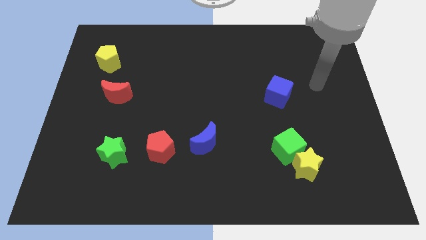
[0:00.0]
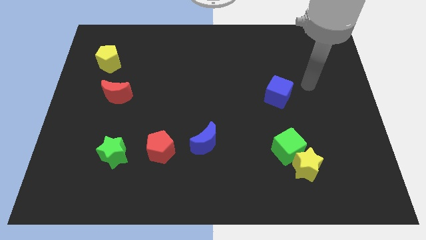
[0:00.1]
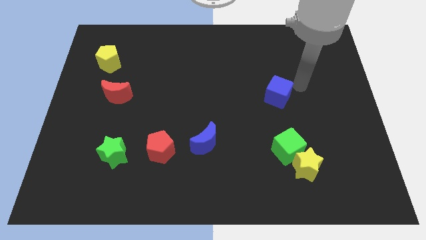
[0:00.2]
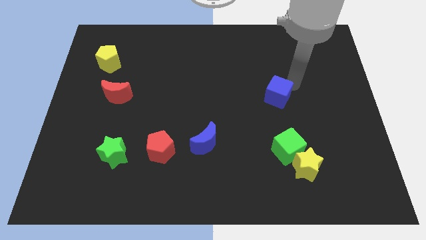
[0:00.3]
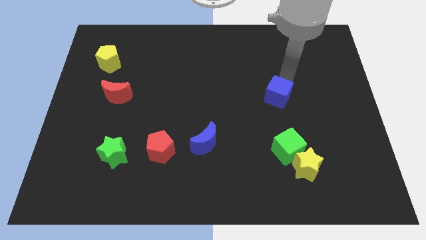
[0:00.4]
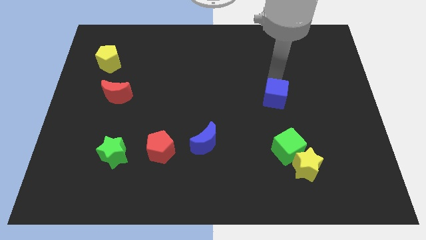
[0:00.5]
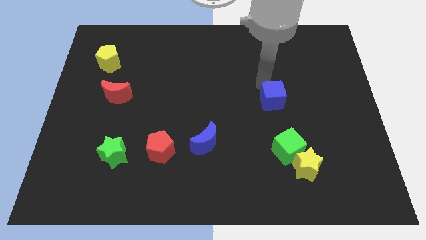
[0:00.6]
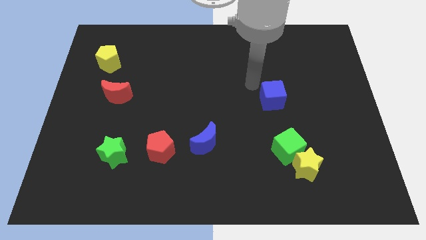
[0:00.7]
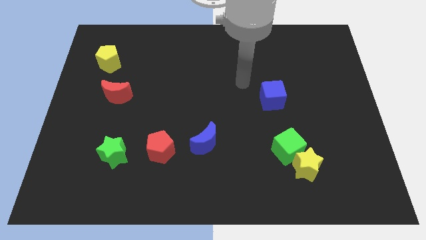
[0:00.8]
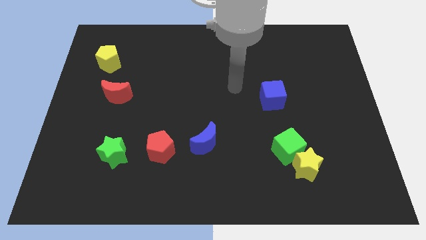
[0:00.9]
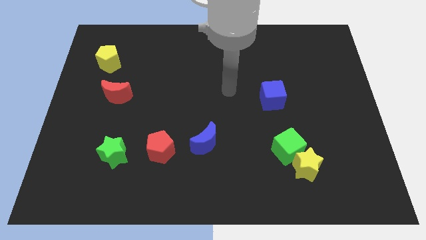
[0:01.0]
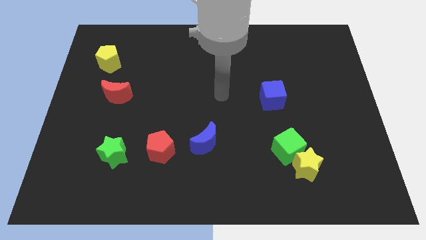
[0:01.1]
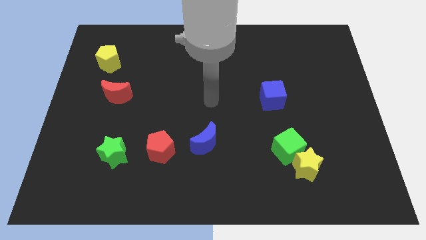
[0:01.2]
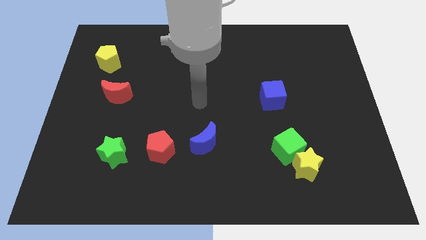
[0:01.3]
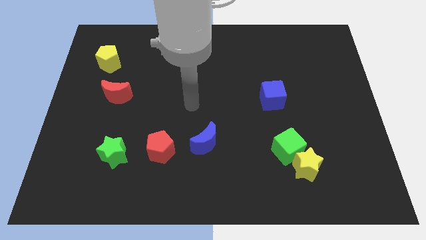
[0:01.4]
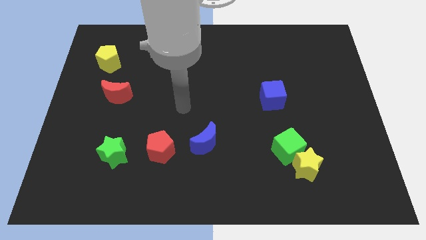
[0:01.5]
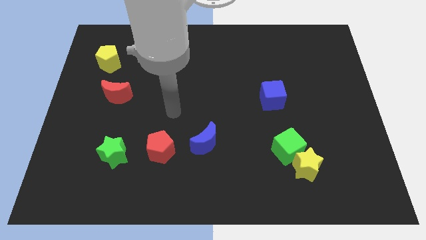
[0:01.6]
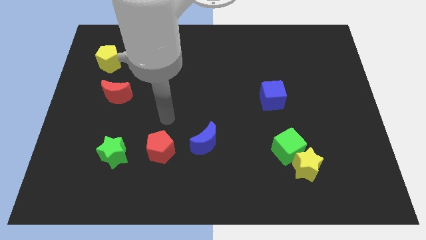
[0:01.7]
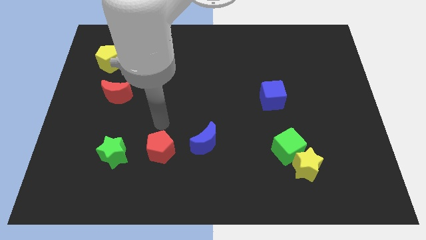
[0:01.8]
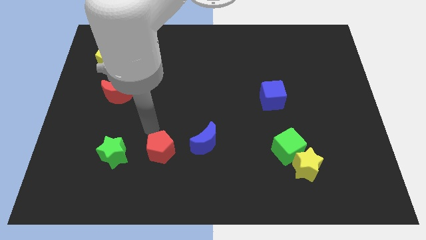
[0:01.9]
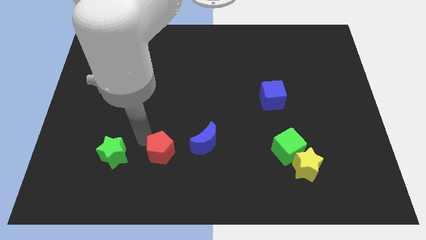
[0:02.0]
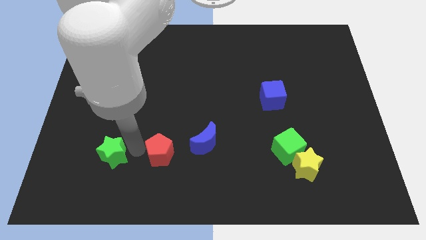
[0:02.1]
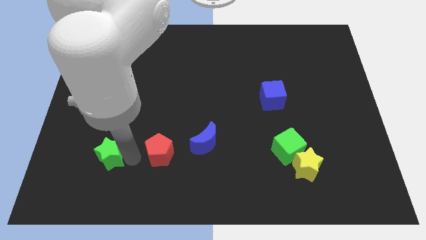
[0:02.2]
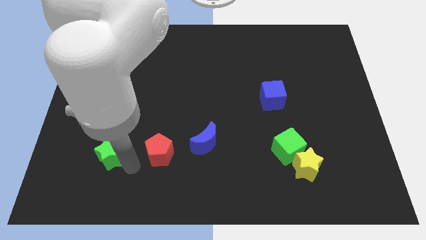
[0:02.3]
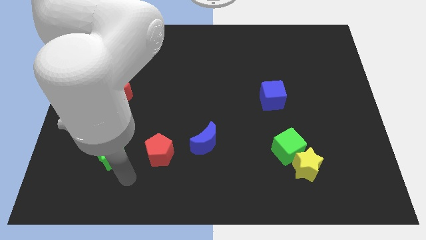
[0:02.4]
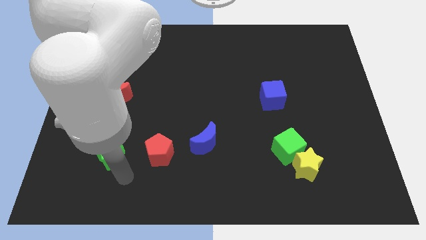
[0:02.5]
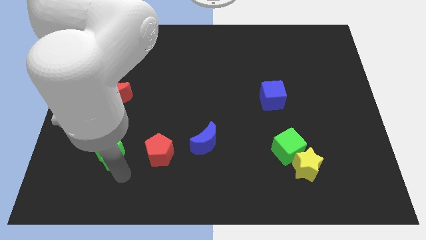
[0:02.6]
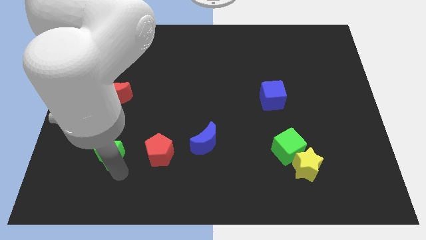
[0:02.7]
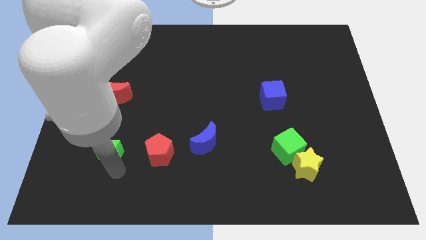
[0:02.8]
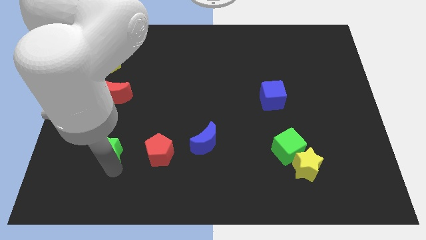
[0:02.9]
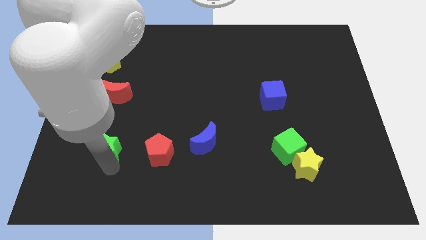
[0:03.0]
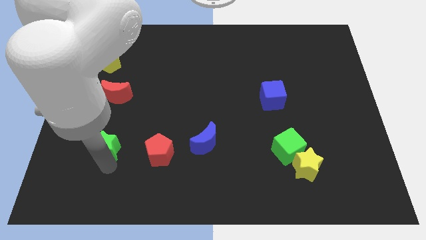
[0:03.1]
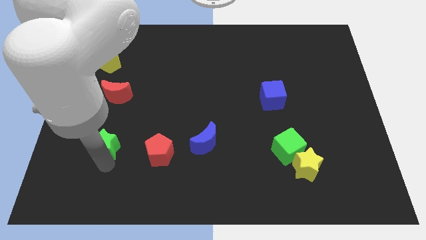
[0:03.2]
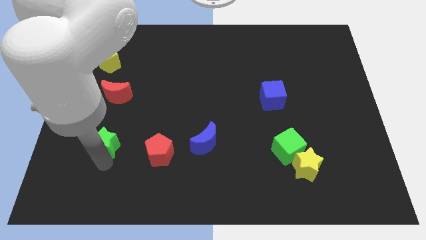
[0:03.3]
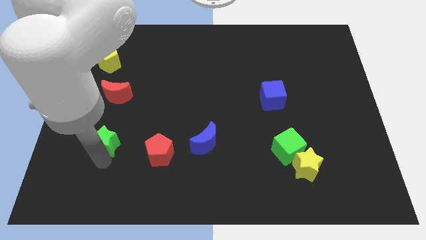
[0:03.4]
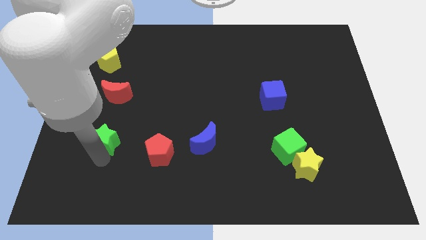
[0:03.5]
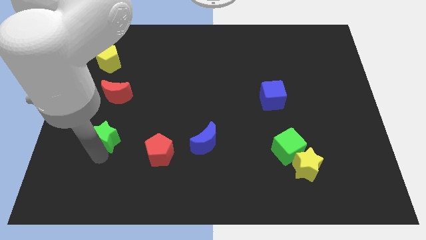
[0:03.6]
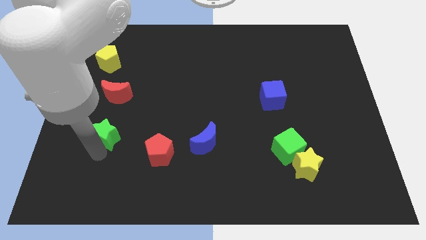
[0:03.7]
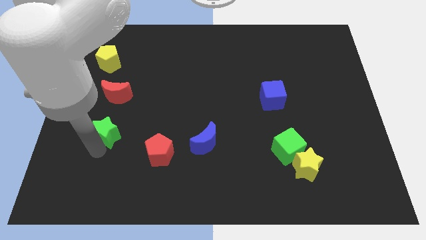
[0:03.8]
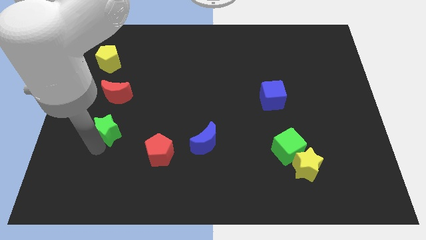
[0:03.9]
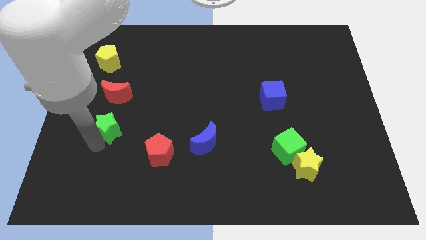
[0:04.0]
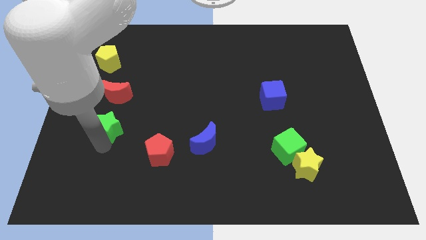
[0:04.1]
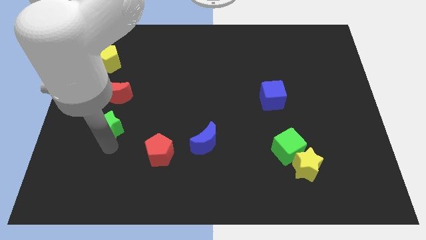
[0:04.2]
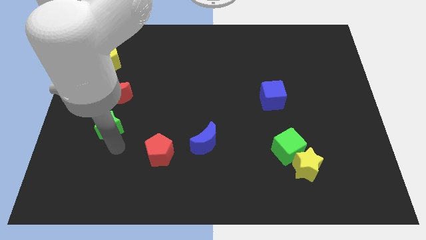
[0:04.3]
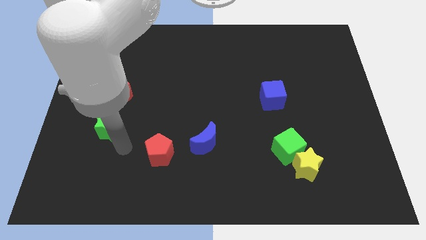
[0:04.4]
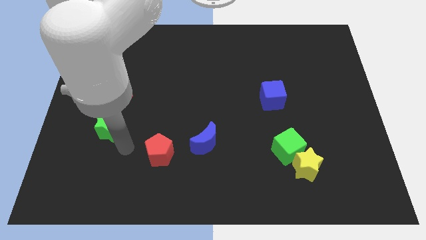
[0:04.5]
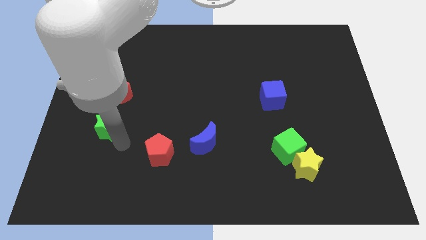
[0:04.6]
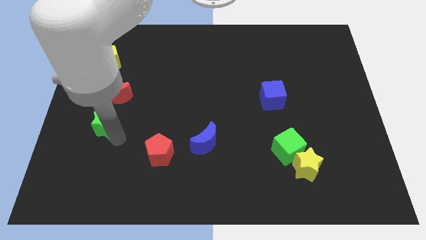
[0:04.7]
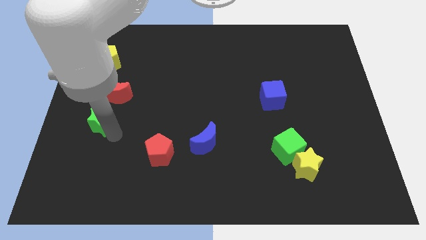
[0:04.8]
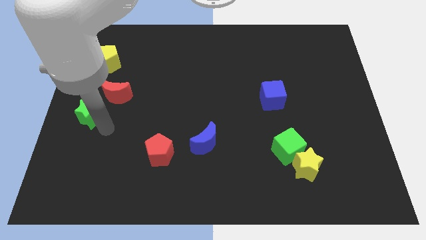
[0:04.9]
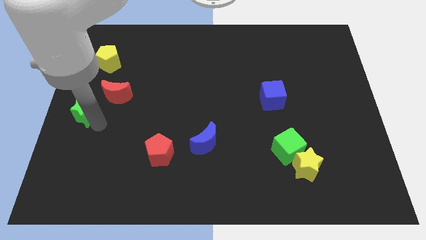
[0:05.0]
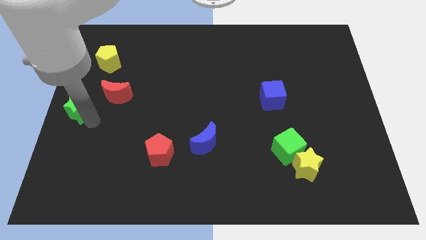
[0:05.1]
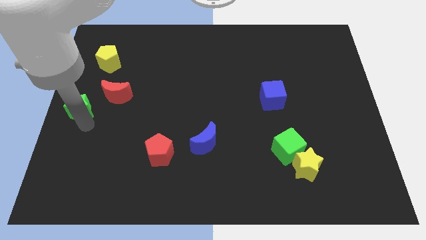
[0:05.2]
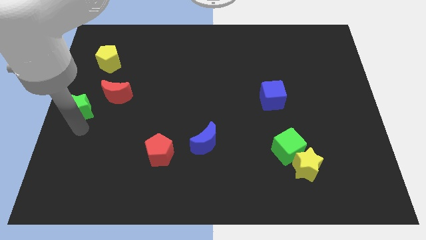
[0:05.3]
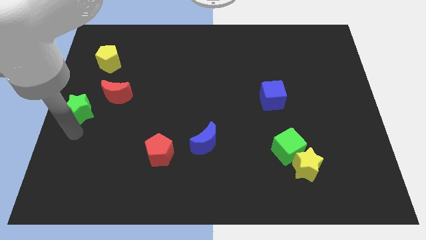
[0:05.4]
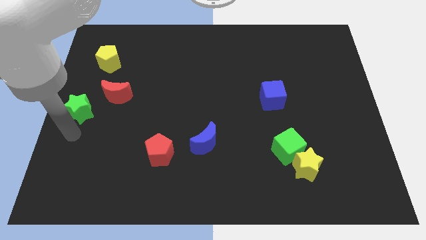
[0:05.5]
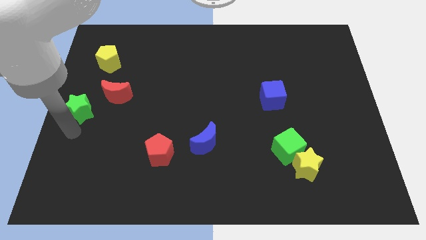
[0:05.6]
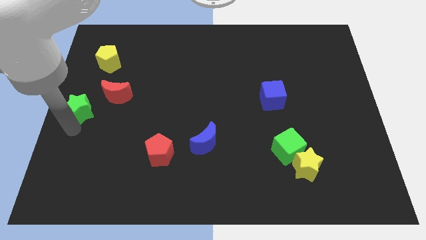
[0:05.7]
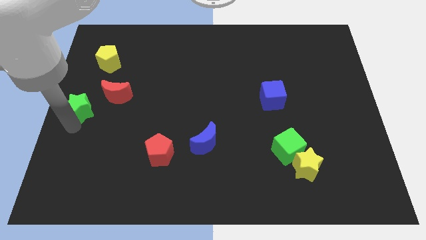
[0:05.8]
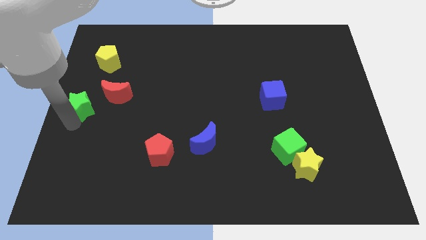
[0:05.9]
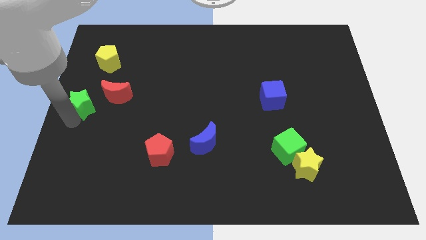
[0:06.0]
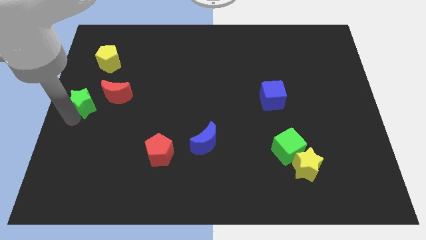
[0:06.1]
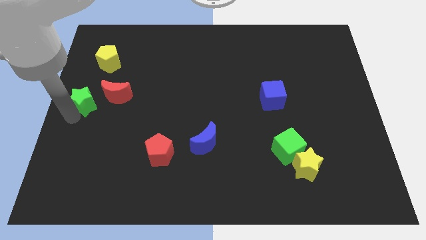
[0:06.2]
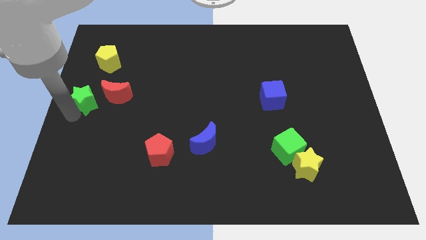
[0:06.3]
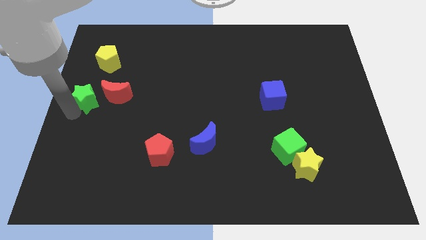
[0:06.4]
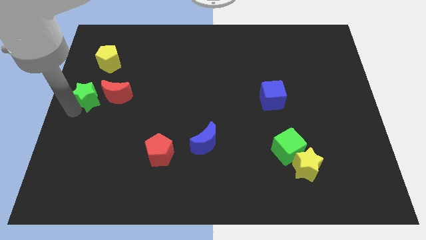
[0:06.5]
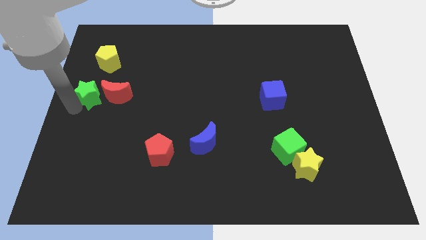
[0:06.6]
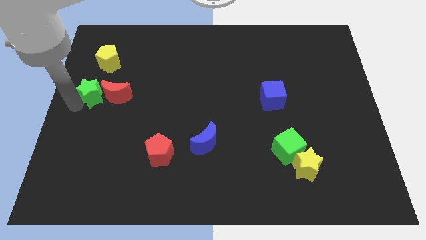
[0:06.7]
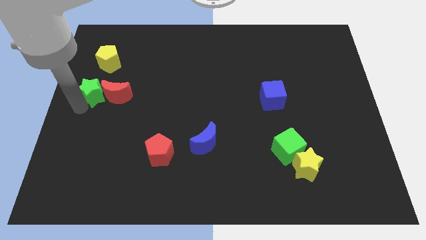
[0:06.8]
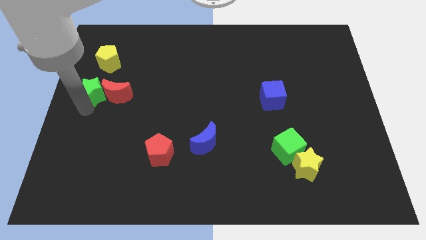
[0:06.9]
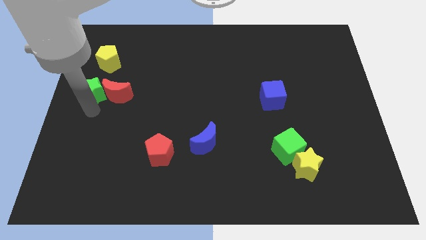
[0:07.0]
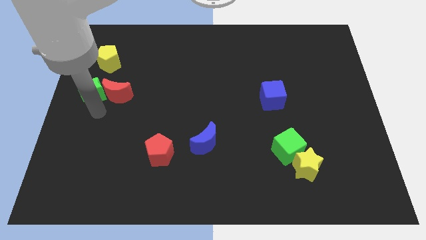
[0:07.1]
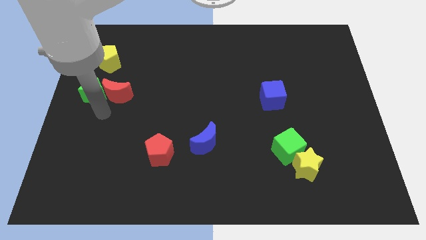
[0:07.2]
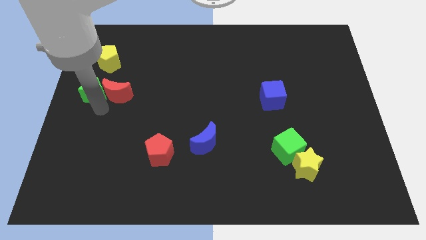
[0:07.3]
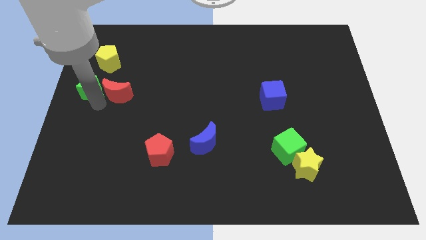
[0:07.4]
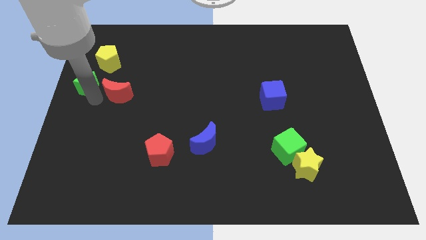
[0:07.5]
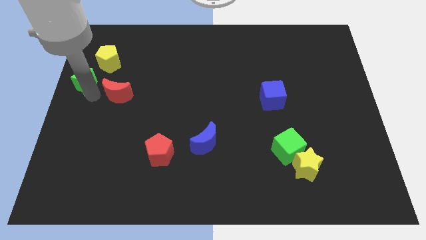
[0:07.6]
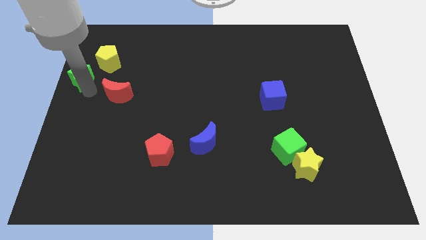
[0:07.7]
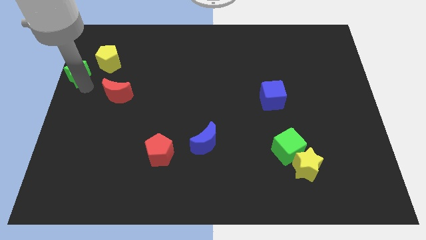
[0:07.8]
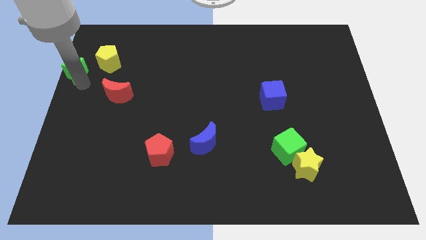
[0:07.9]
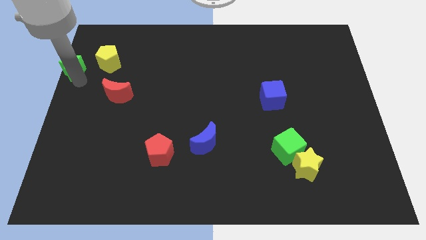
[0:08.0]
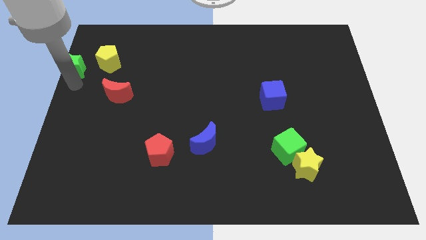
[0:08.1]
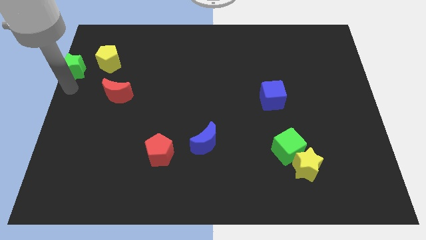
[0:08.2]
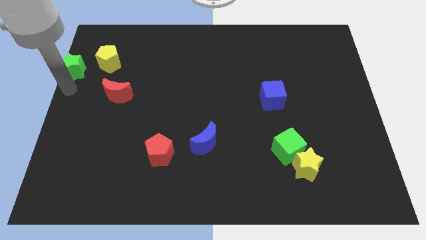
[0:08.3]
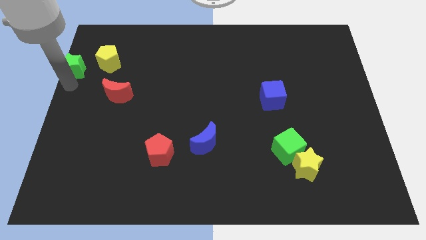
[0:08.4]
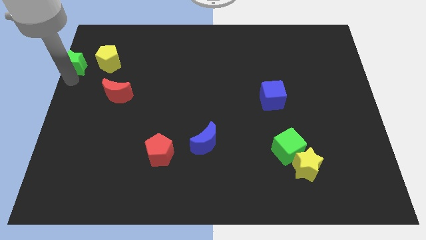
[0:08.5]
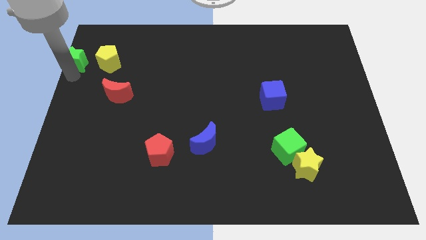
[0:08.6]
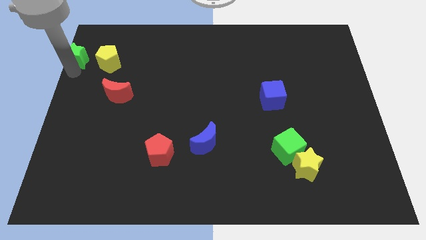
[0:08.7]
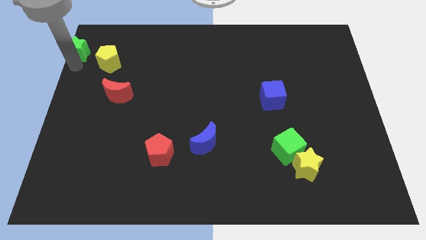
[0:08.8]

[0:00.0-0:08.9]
slide the green star to the upper left corner
